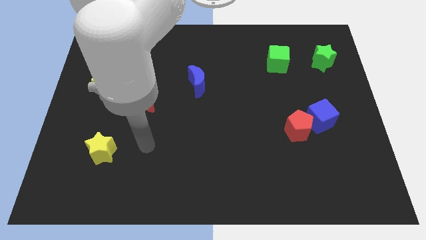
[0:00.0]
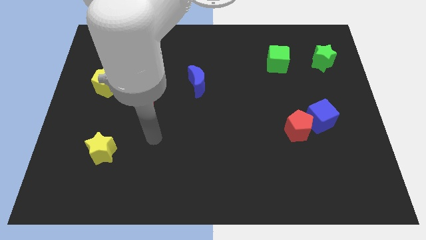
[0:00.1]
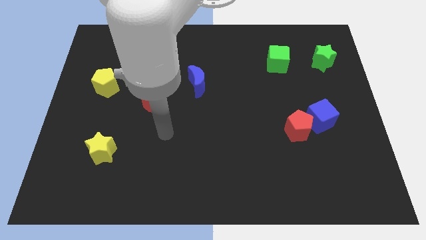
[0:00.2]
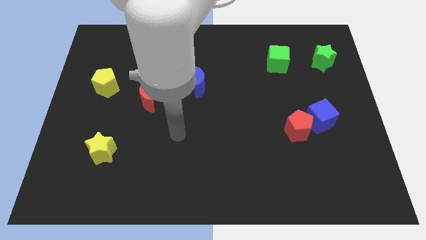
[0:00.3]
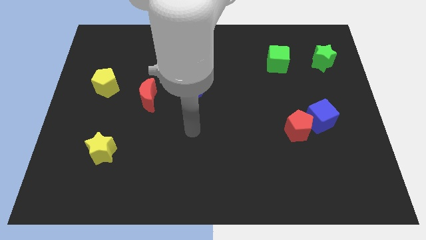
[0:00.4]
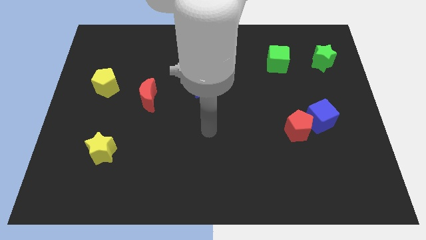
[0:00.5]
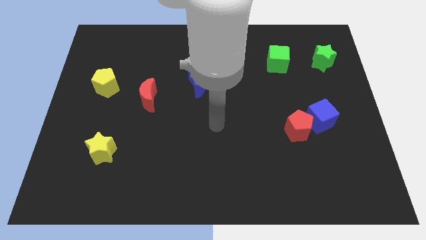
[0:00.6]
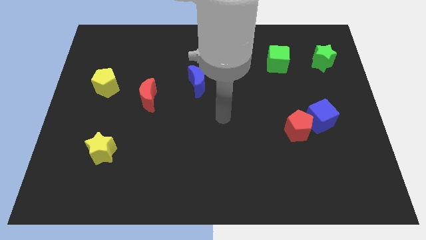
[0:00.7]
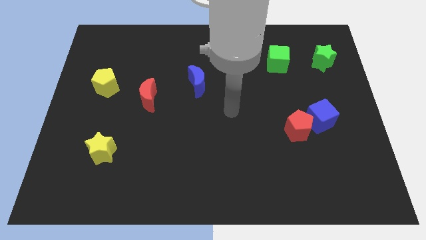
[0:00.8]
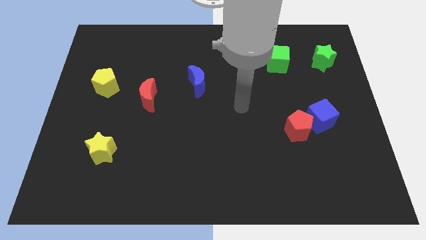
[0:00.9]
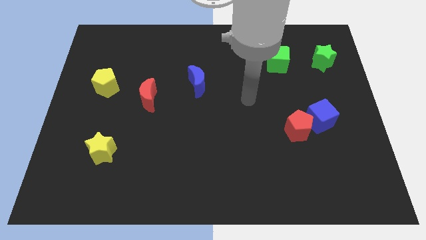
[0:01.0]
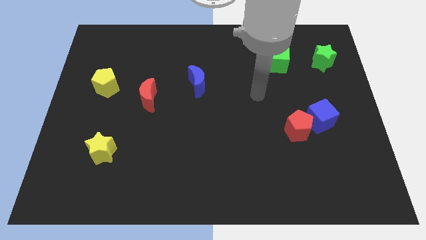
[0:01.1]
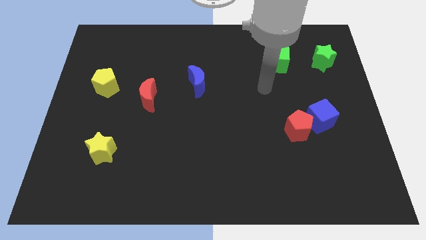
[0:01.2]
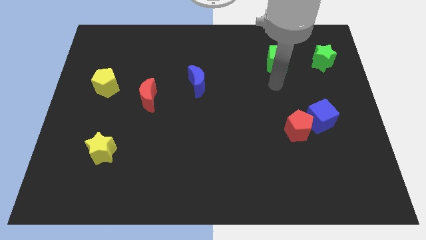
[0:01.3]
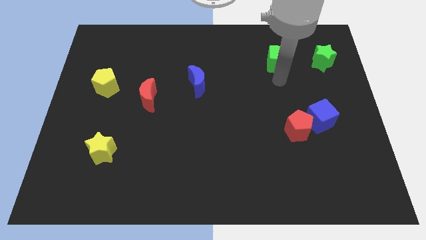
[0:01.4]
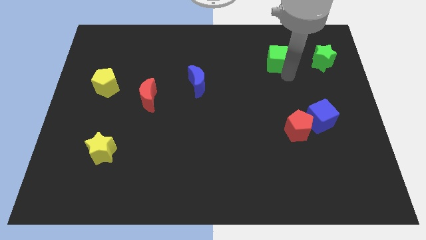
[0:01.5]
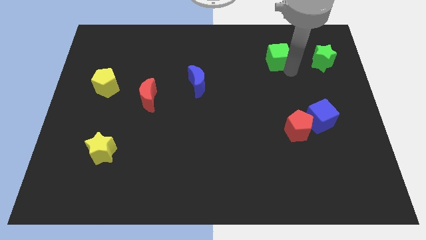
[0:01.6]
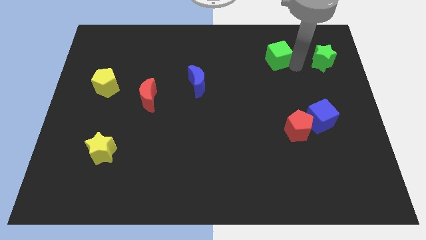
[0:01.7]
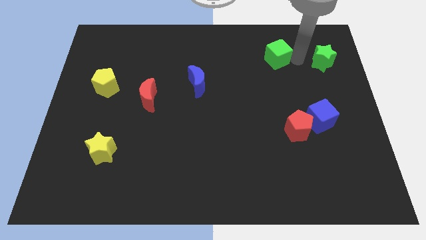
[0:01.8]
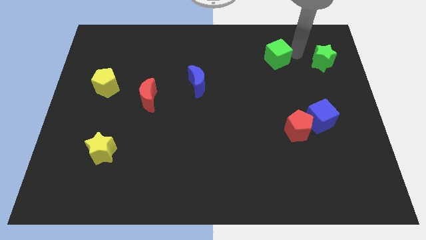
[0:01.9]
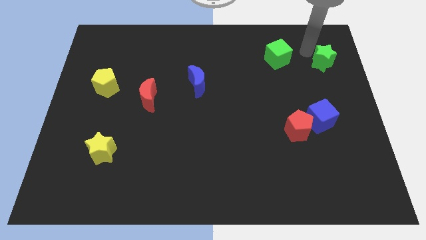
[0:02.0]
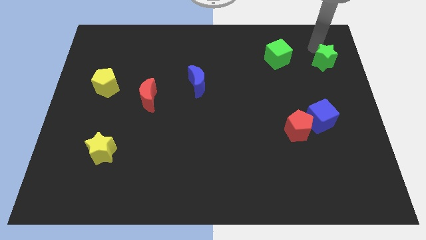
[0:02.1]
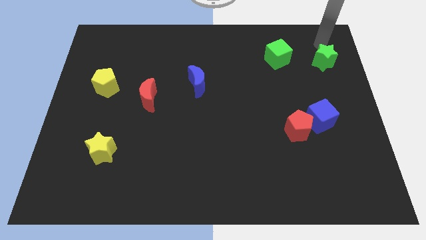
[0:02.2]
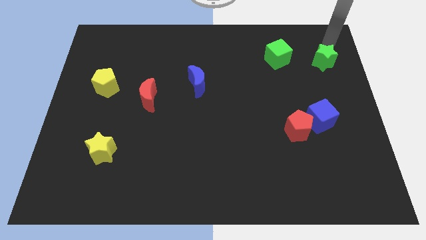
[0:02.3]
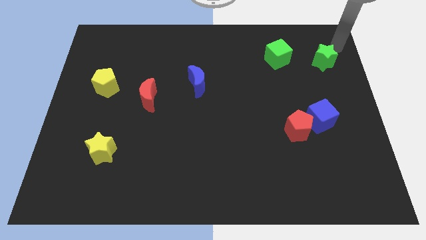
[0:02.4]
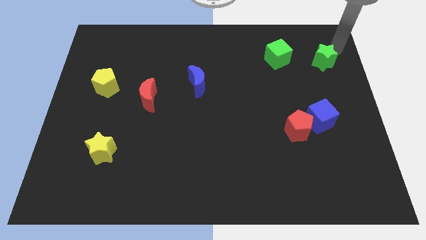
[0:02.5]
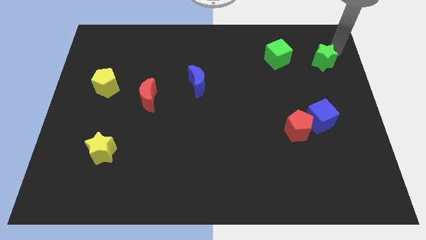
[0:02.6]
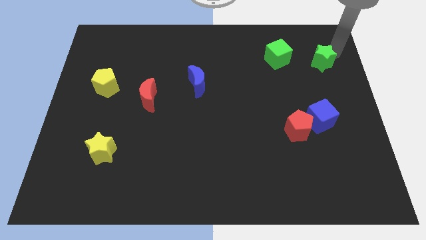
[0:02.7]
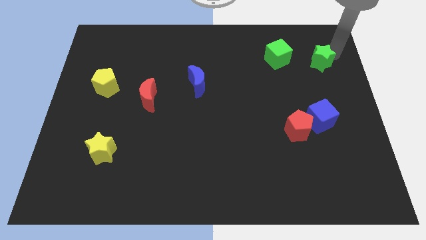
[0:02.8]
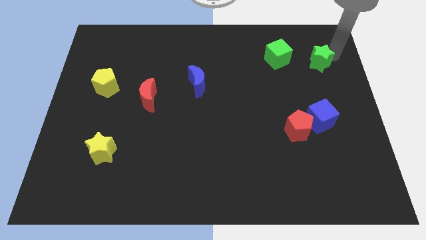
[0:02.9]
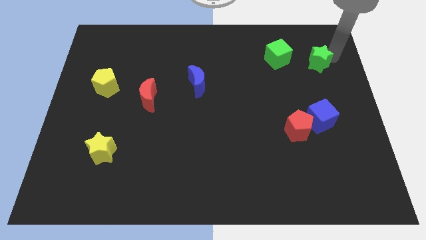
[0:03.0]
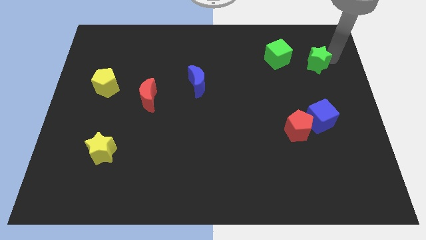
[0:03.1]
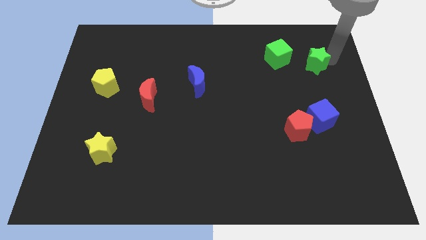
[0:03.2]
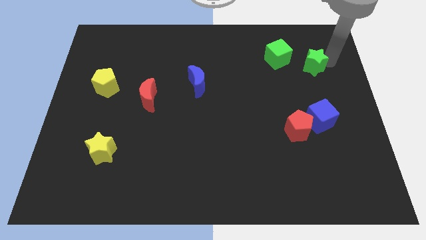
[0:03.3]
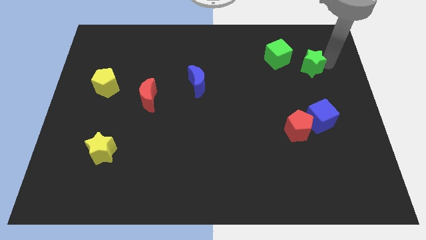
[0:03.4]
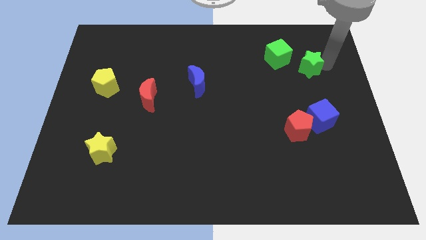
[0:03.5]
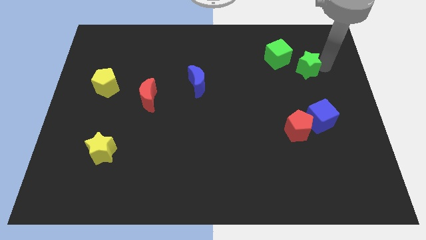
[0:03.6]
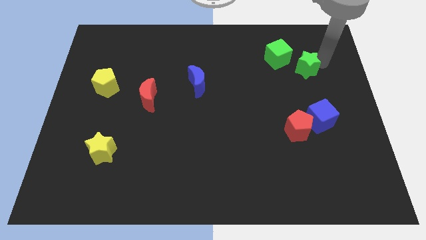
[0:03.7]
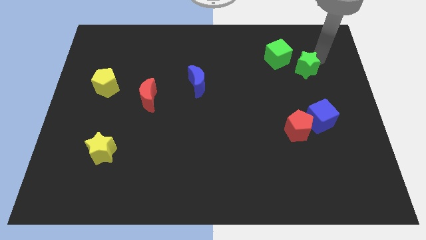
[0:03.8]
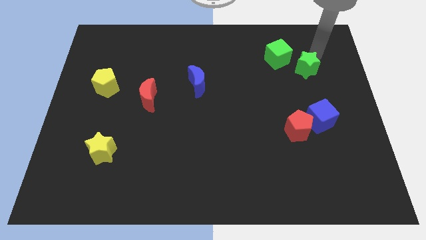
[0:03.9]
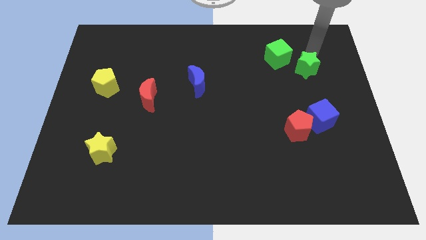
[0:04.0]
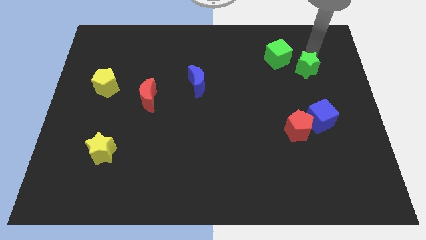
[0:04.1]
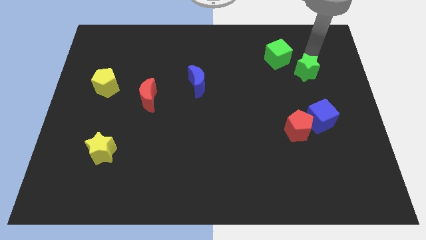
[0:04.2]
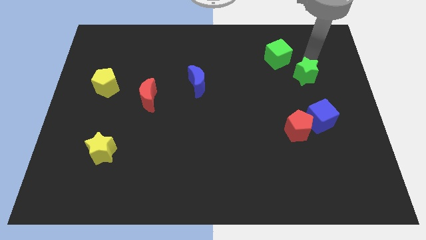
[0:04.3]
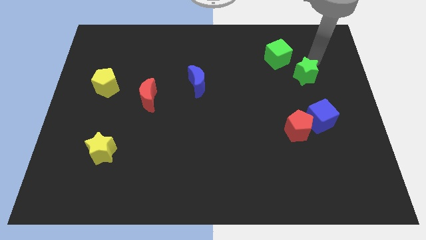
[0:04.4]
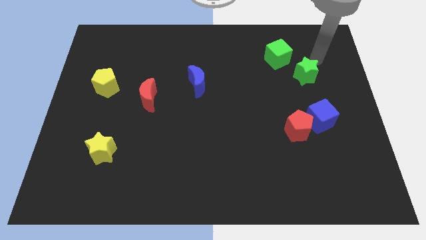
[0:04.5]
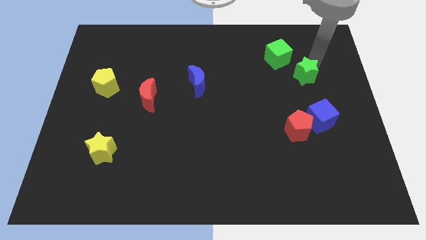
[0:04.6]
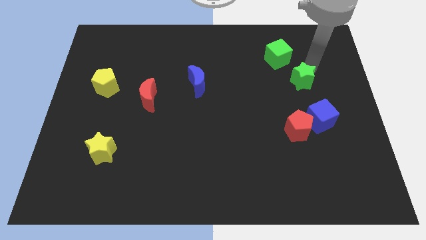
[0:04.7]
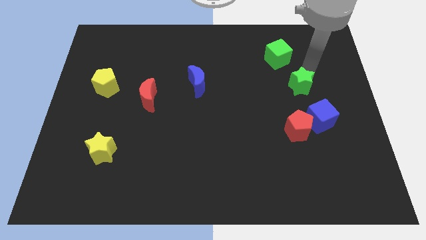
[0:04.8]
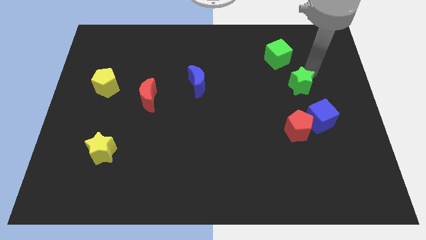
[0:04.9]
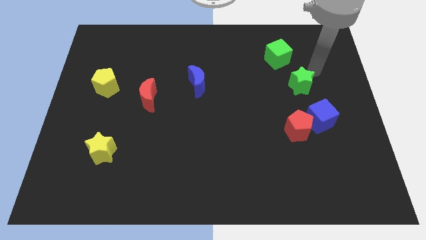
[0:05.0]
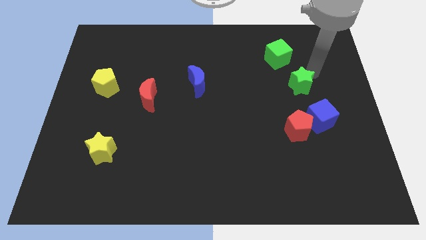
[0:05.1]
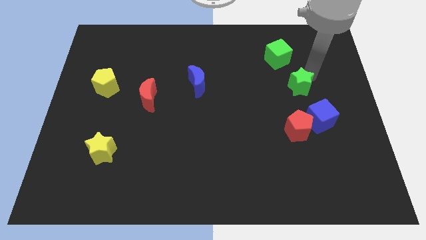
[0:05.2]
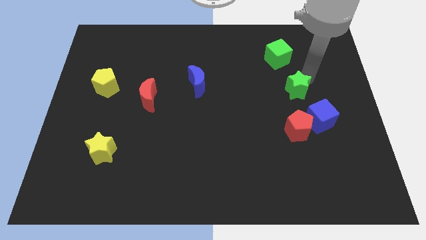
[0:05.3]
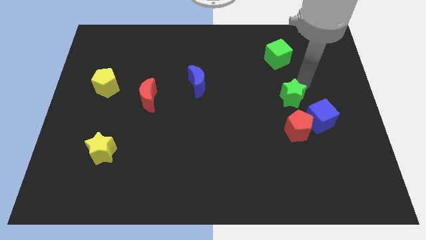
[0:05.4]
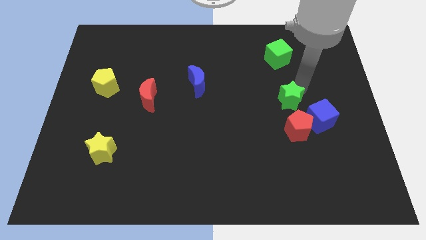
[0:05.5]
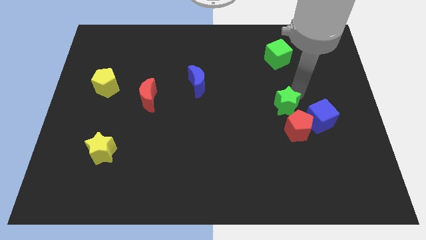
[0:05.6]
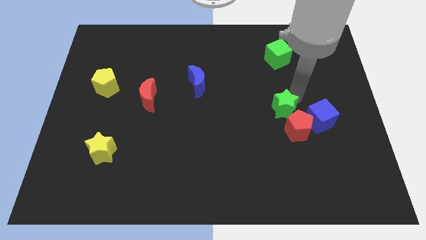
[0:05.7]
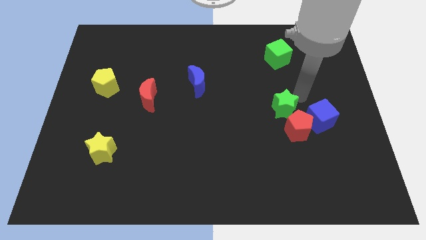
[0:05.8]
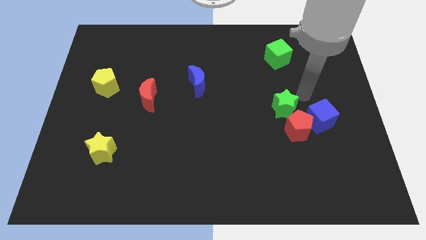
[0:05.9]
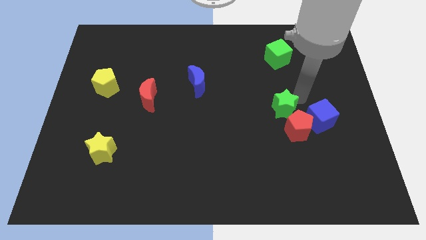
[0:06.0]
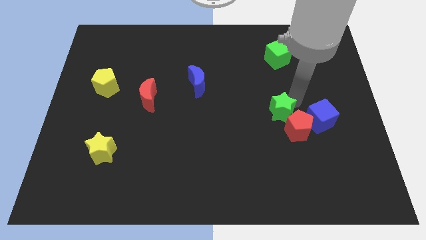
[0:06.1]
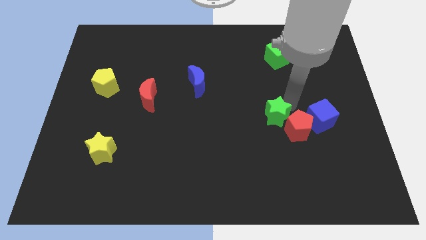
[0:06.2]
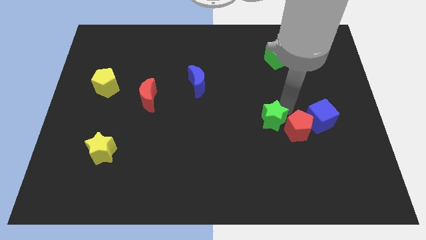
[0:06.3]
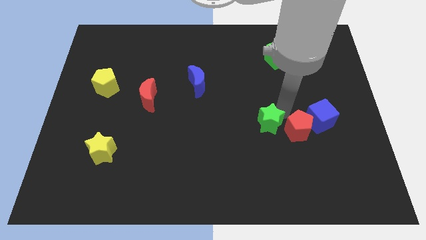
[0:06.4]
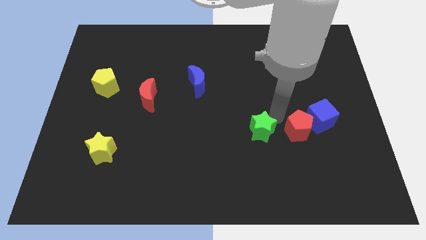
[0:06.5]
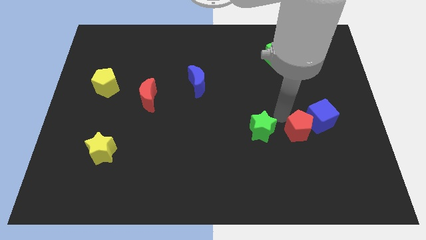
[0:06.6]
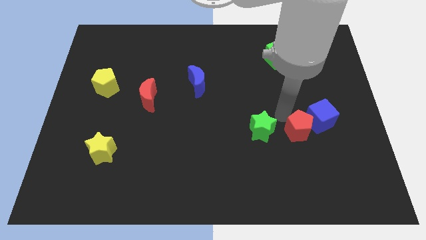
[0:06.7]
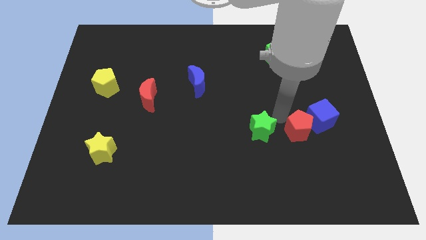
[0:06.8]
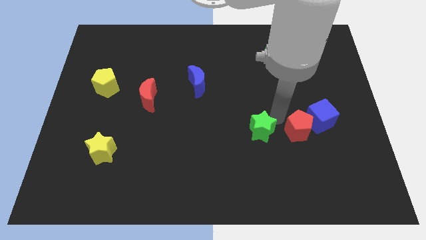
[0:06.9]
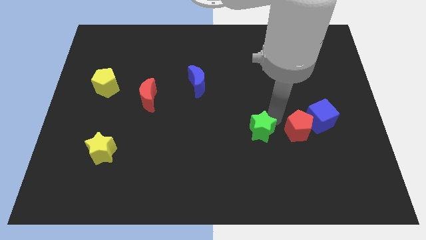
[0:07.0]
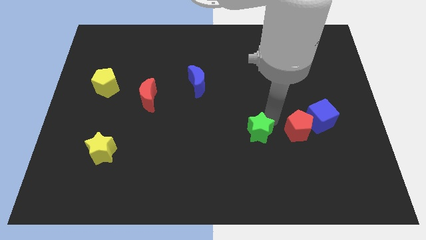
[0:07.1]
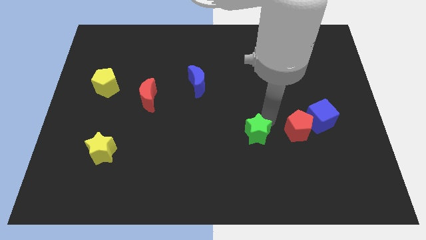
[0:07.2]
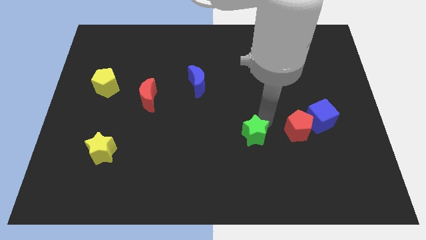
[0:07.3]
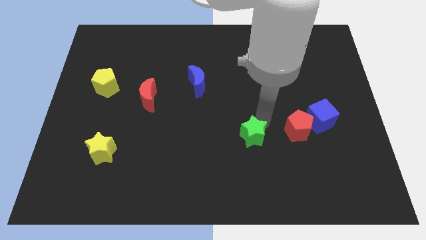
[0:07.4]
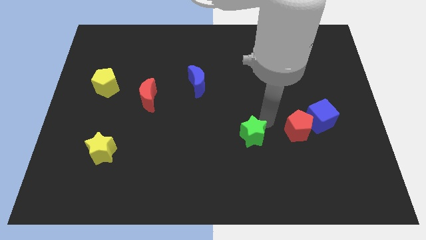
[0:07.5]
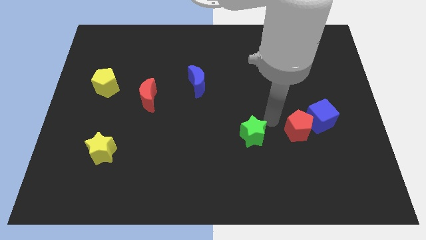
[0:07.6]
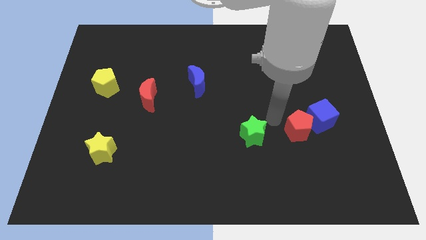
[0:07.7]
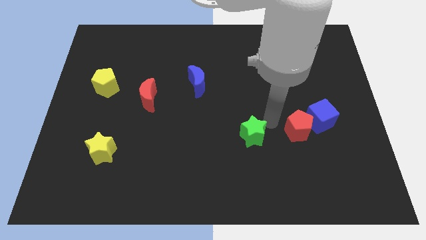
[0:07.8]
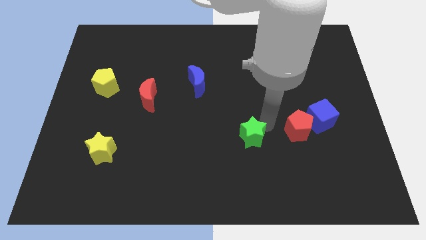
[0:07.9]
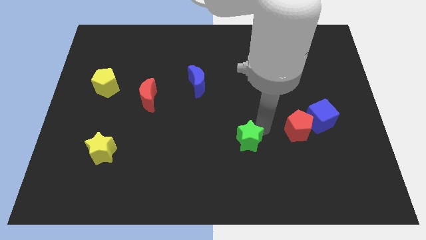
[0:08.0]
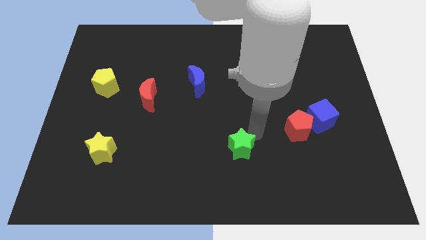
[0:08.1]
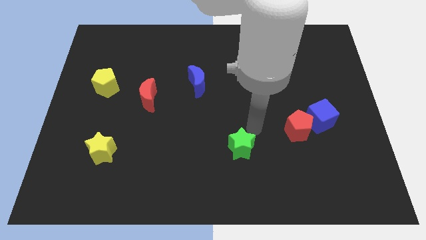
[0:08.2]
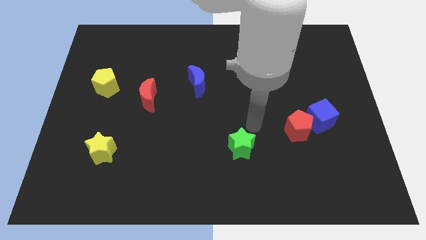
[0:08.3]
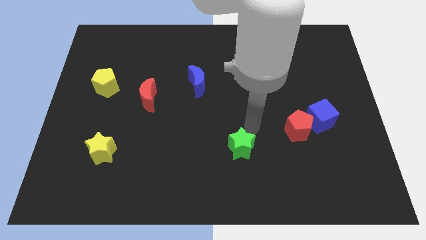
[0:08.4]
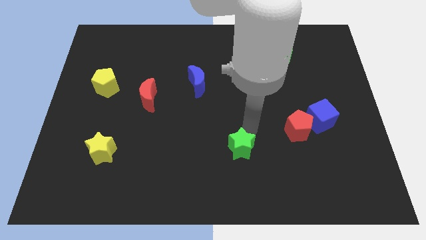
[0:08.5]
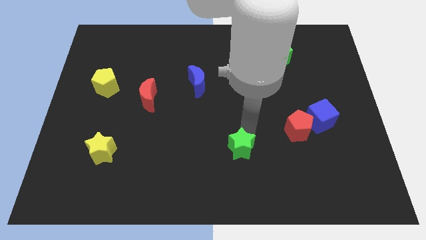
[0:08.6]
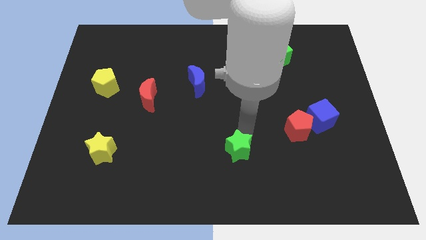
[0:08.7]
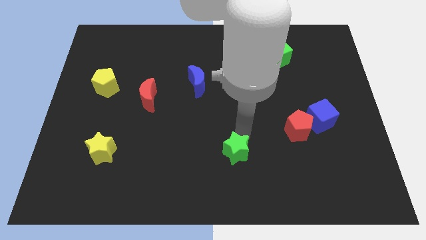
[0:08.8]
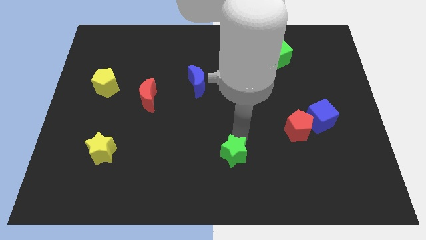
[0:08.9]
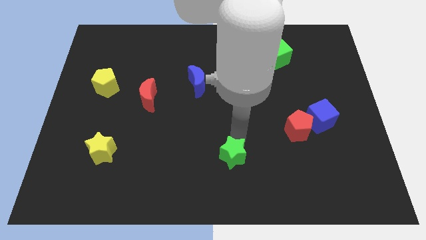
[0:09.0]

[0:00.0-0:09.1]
put the green star to the bottom side
